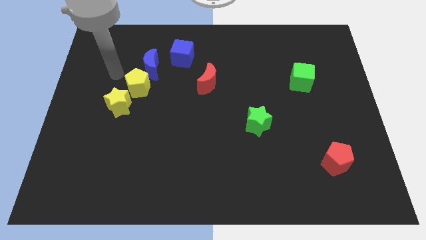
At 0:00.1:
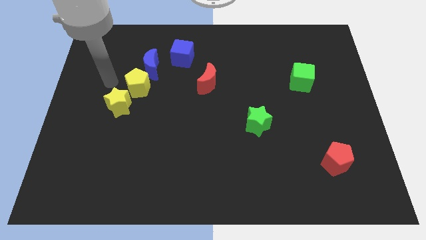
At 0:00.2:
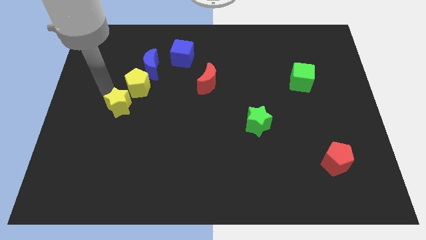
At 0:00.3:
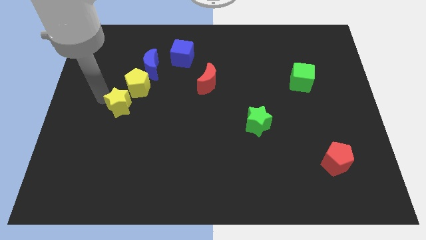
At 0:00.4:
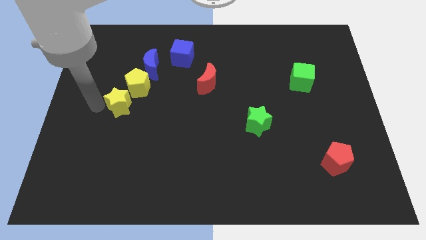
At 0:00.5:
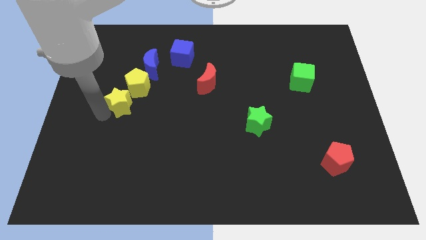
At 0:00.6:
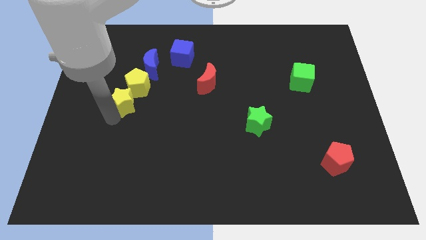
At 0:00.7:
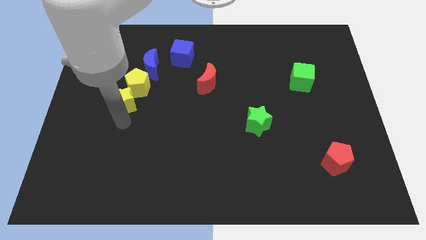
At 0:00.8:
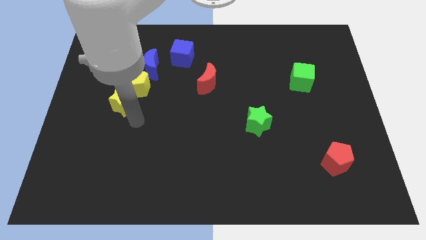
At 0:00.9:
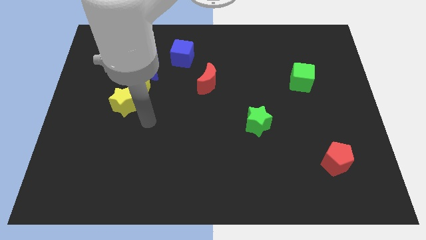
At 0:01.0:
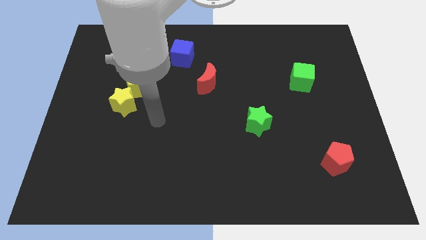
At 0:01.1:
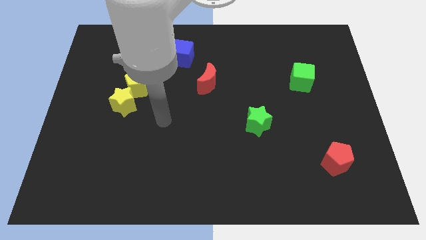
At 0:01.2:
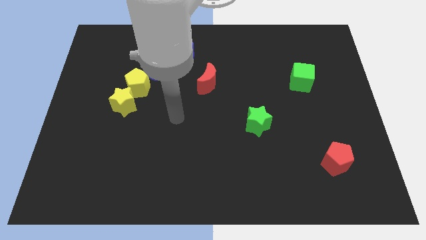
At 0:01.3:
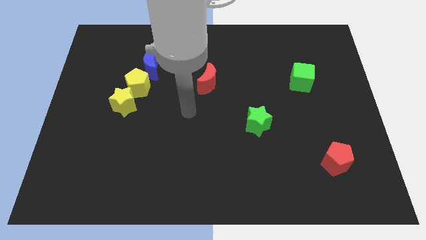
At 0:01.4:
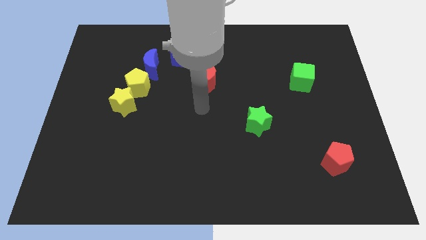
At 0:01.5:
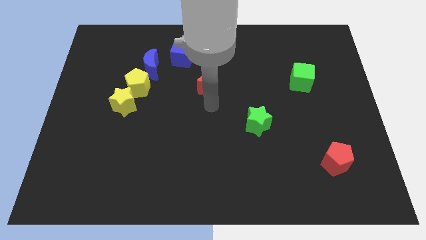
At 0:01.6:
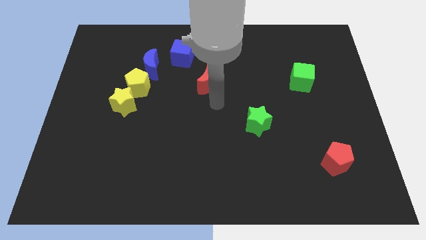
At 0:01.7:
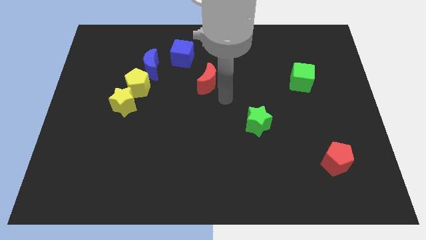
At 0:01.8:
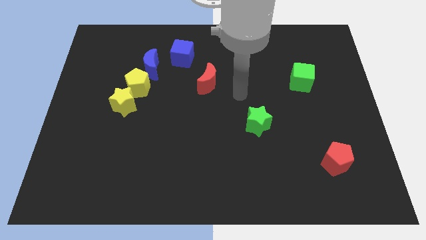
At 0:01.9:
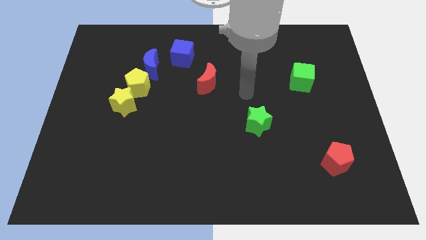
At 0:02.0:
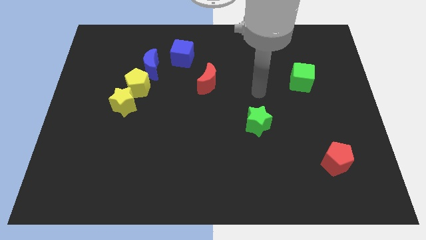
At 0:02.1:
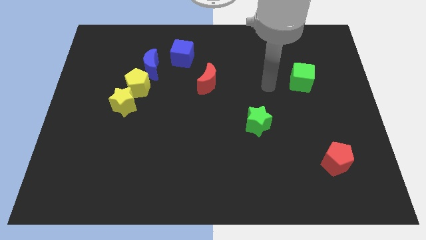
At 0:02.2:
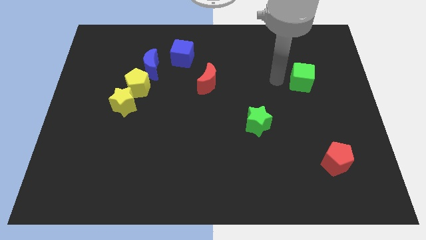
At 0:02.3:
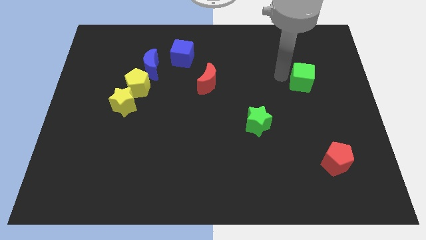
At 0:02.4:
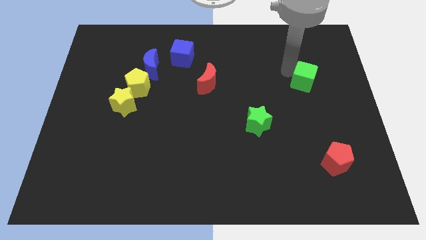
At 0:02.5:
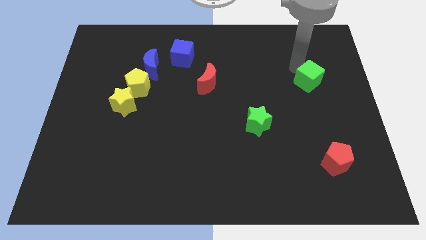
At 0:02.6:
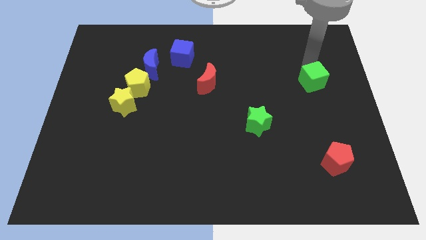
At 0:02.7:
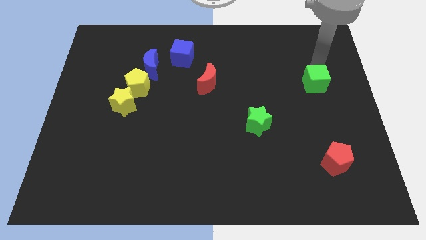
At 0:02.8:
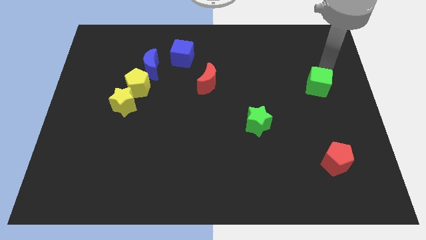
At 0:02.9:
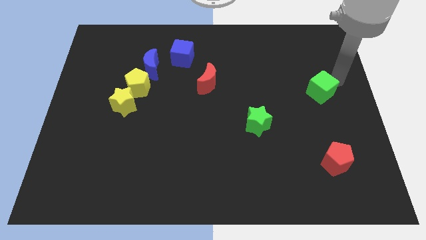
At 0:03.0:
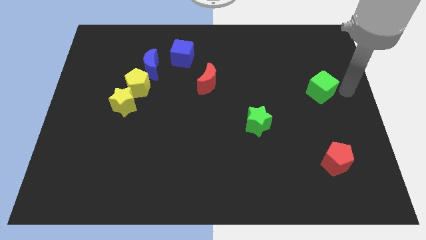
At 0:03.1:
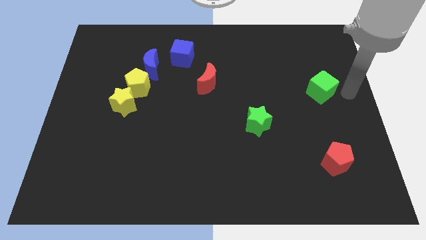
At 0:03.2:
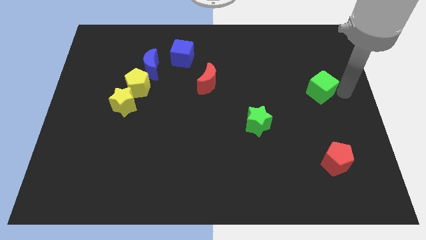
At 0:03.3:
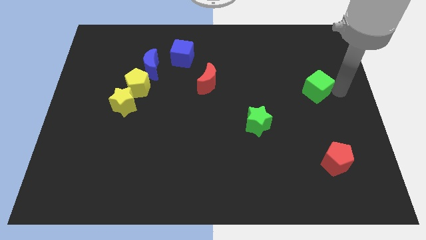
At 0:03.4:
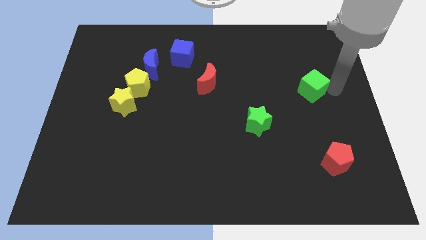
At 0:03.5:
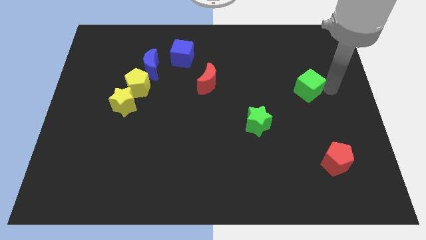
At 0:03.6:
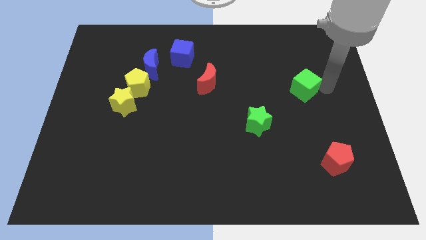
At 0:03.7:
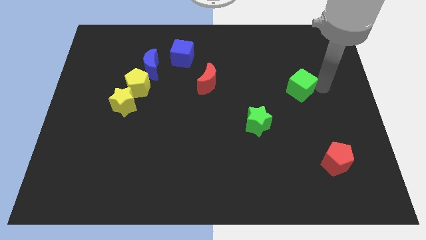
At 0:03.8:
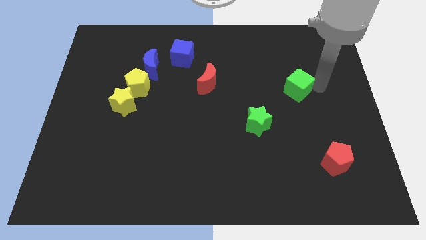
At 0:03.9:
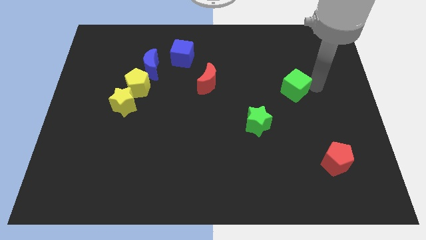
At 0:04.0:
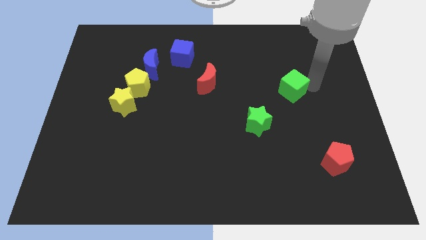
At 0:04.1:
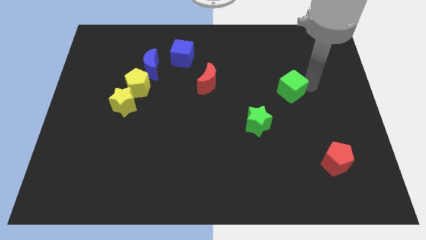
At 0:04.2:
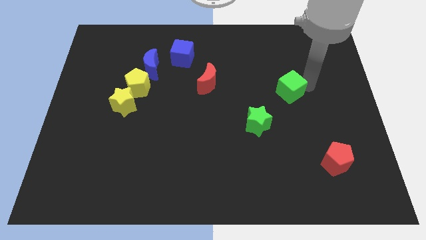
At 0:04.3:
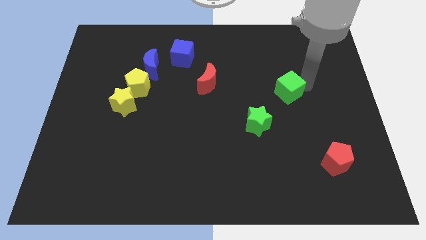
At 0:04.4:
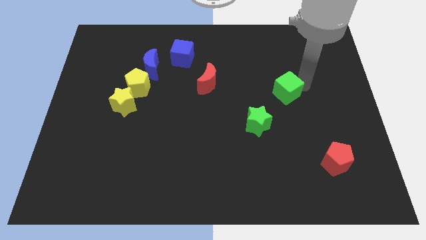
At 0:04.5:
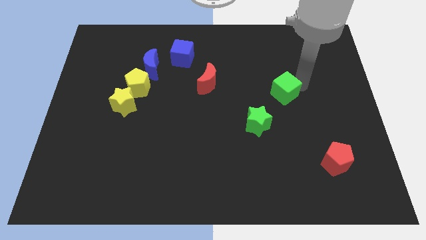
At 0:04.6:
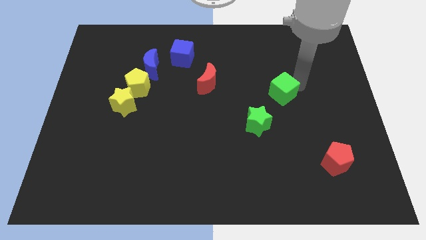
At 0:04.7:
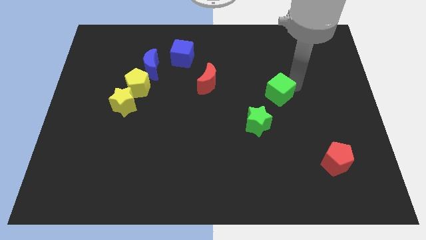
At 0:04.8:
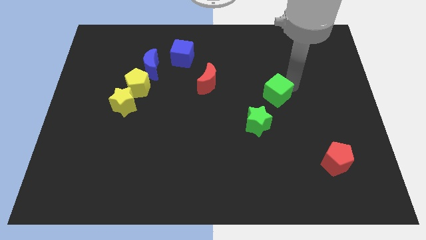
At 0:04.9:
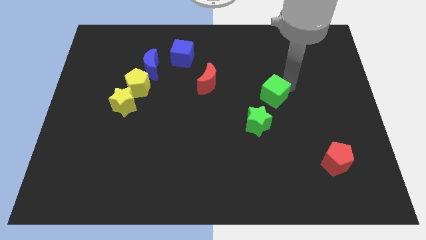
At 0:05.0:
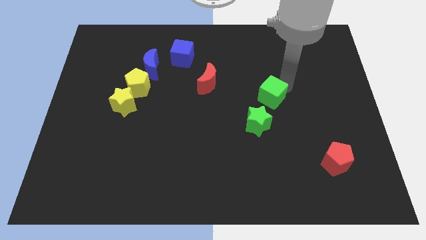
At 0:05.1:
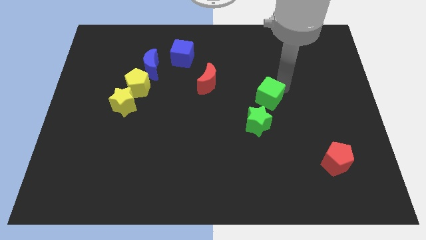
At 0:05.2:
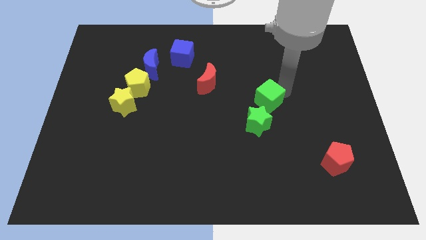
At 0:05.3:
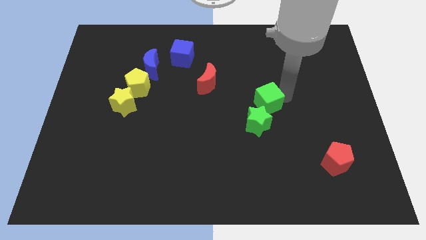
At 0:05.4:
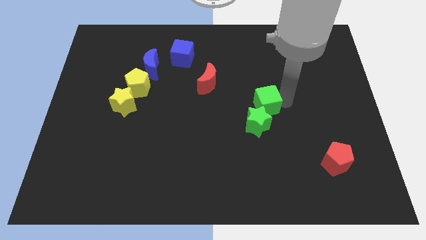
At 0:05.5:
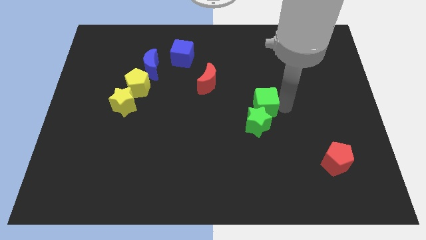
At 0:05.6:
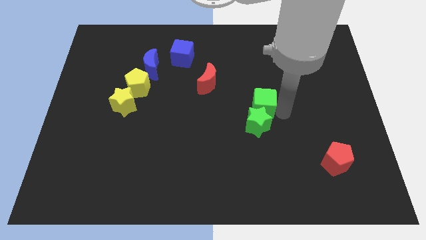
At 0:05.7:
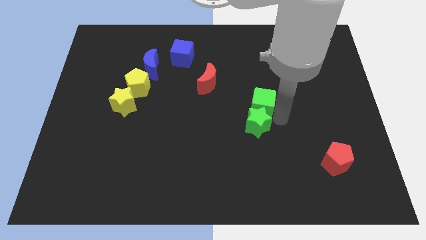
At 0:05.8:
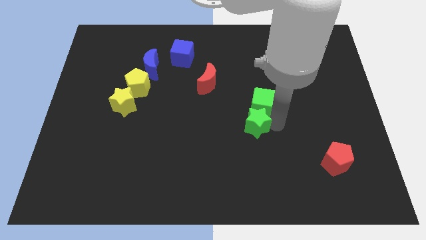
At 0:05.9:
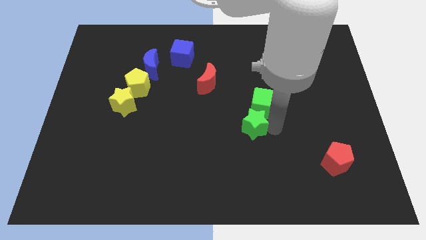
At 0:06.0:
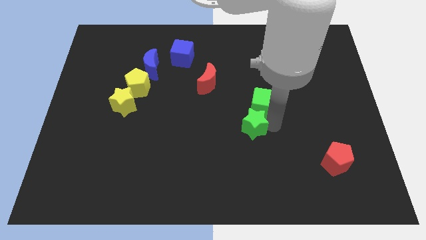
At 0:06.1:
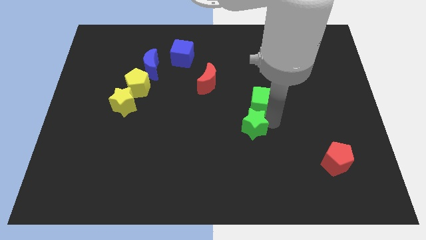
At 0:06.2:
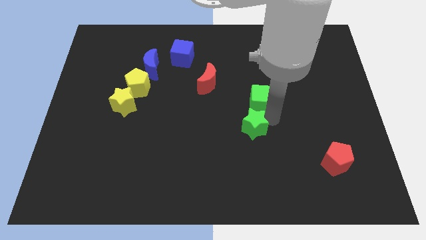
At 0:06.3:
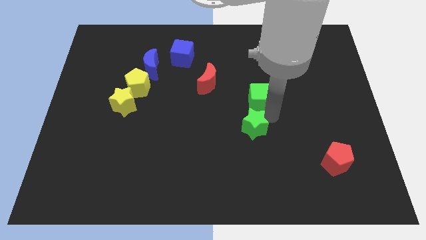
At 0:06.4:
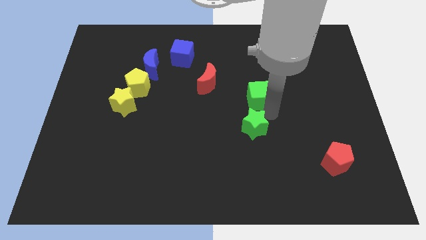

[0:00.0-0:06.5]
slide the green cube to the right of the red moon

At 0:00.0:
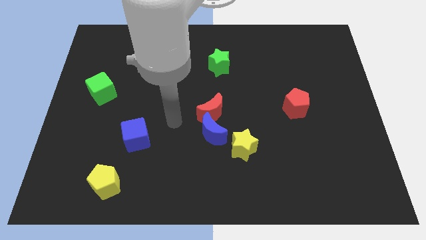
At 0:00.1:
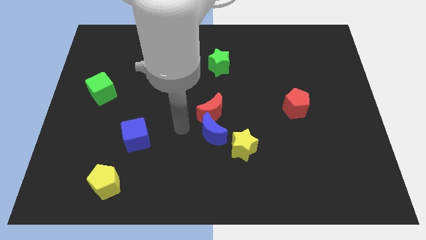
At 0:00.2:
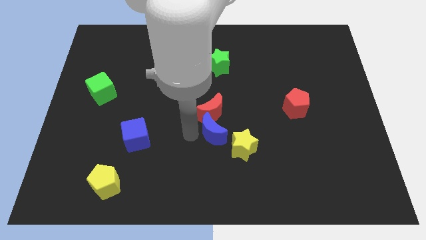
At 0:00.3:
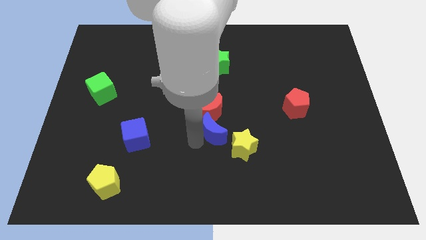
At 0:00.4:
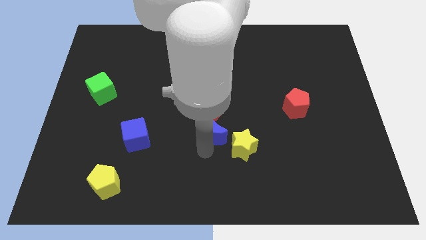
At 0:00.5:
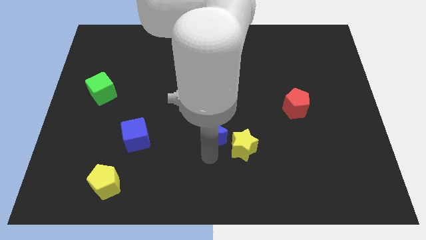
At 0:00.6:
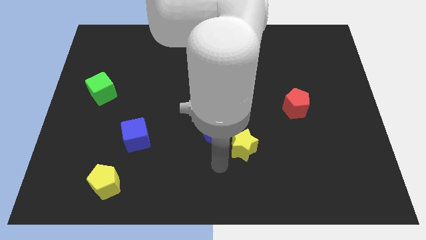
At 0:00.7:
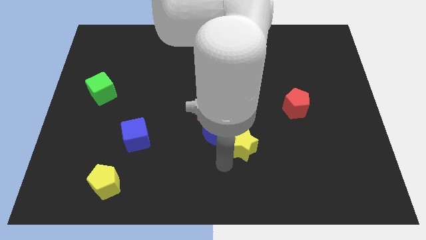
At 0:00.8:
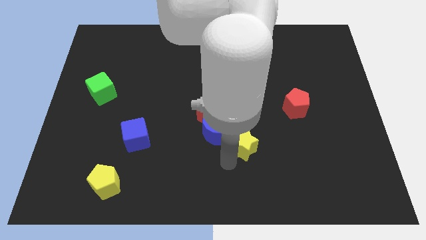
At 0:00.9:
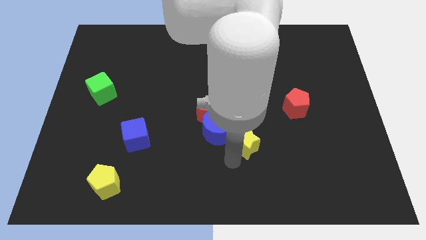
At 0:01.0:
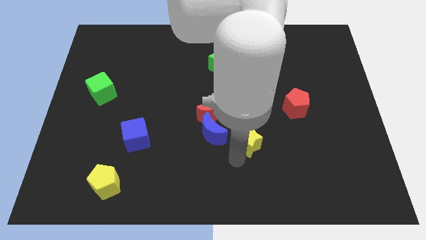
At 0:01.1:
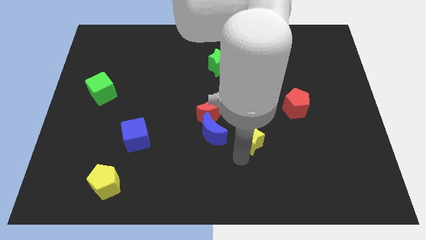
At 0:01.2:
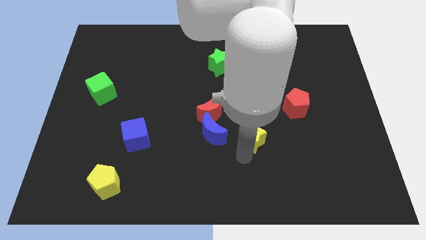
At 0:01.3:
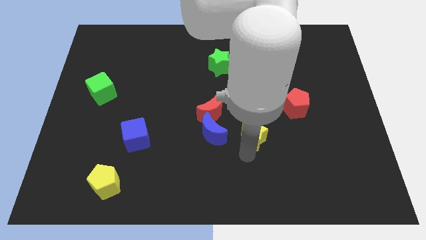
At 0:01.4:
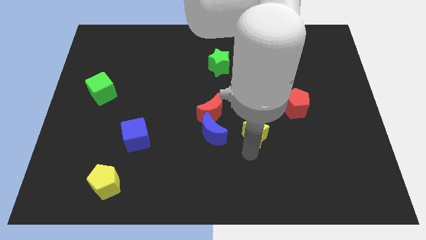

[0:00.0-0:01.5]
move the yellow star diagonally down and to the left of the red pentagon
